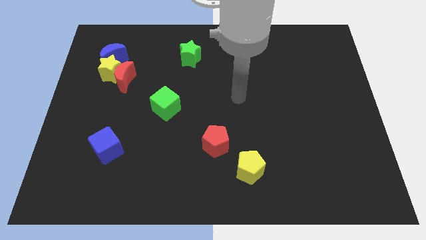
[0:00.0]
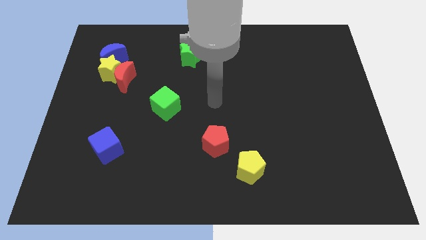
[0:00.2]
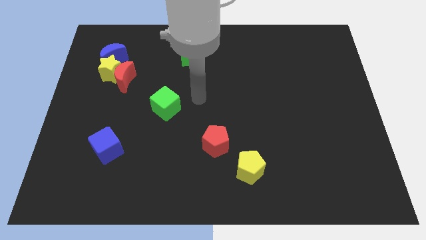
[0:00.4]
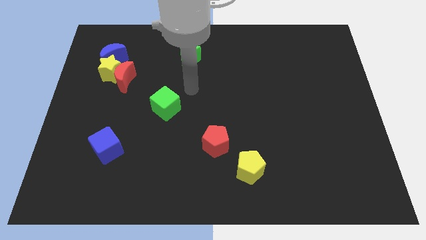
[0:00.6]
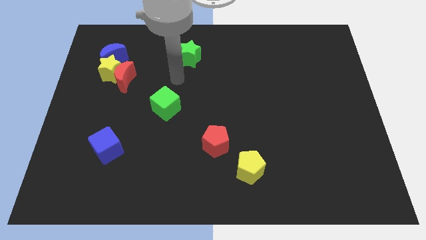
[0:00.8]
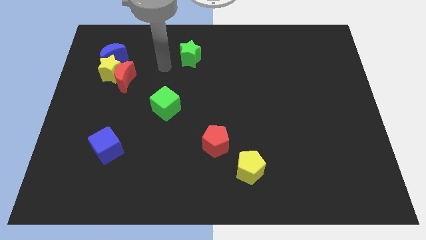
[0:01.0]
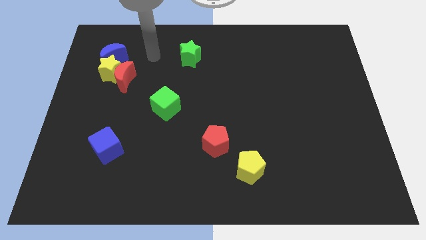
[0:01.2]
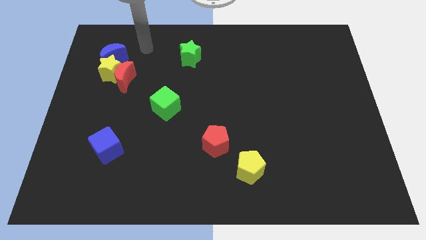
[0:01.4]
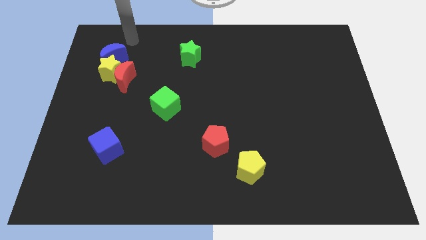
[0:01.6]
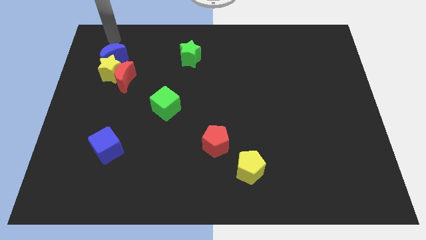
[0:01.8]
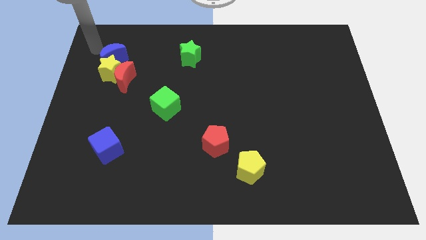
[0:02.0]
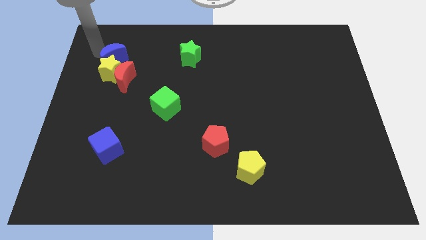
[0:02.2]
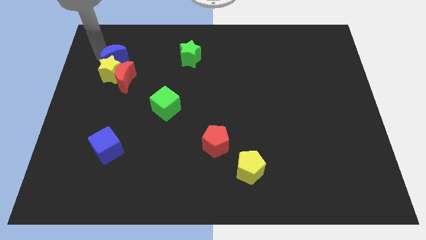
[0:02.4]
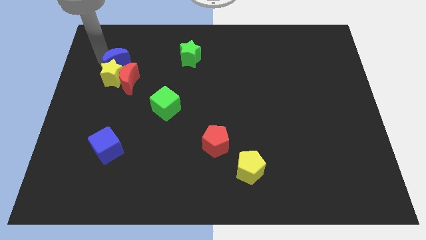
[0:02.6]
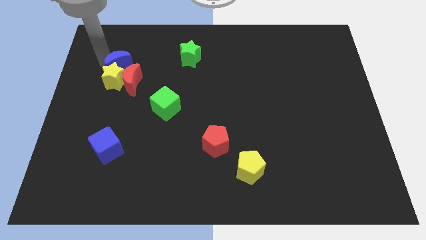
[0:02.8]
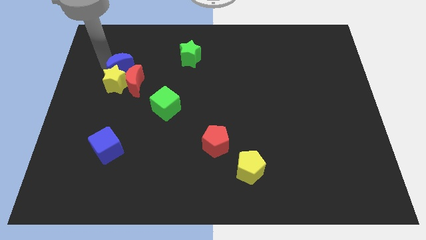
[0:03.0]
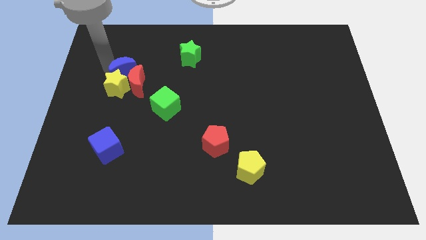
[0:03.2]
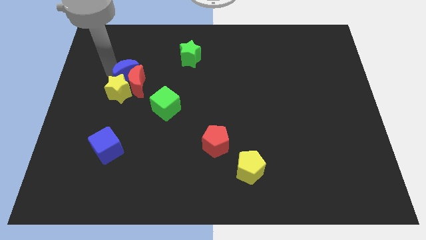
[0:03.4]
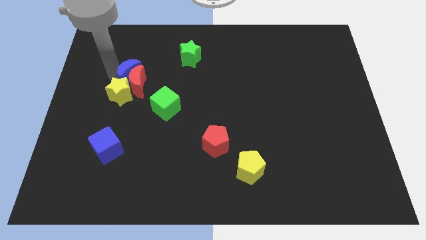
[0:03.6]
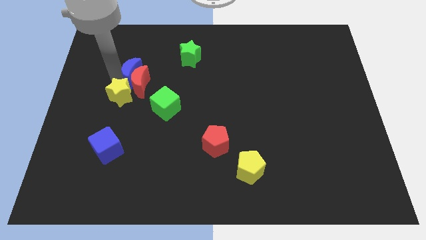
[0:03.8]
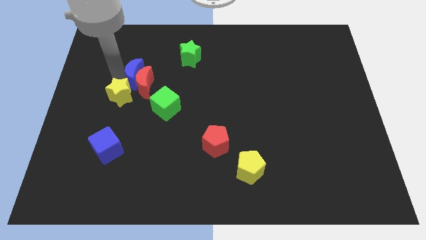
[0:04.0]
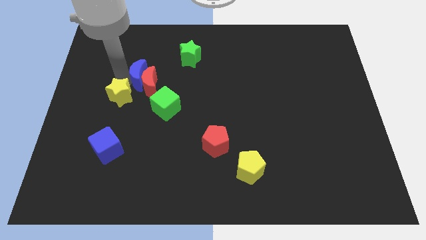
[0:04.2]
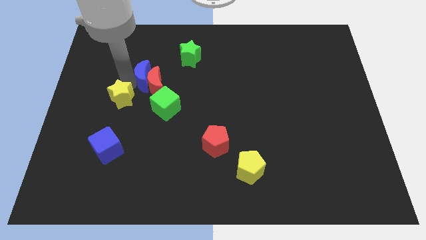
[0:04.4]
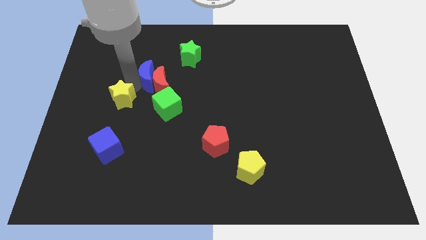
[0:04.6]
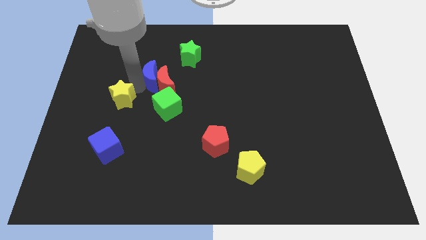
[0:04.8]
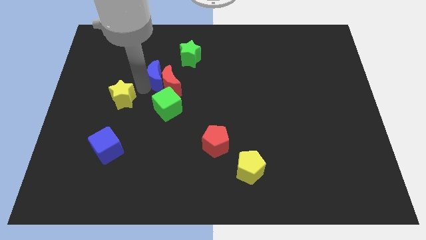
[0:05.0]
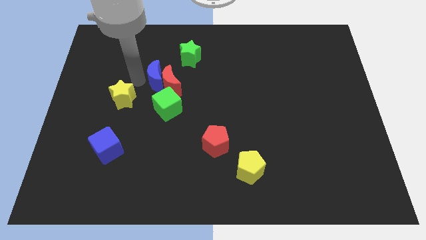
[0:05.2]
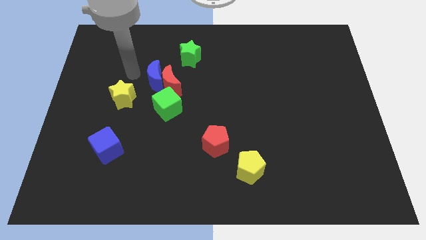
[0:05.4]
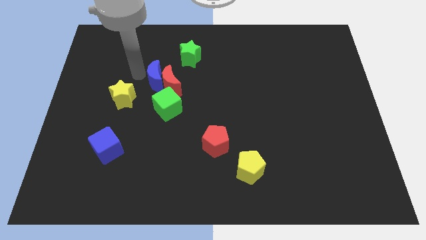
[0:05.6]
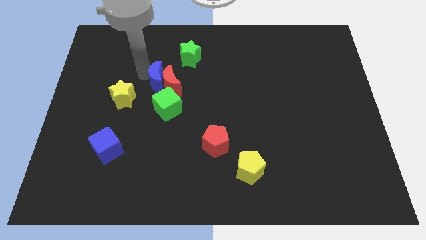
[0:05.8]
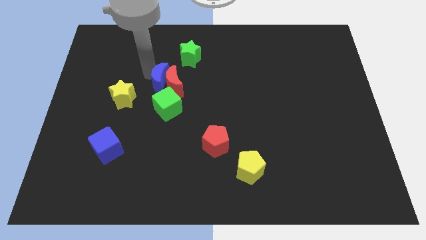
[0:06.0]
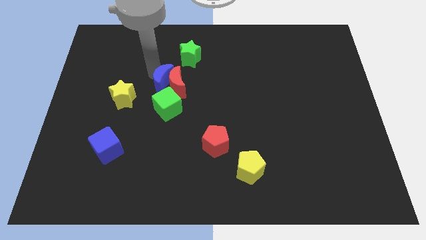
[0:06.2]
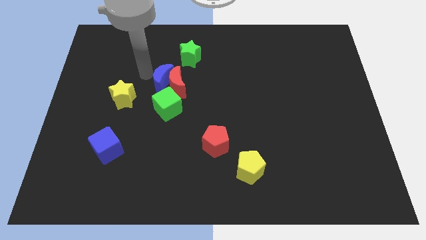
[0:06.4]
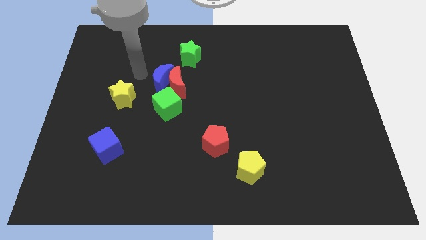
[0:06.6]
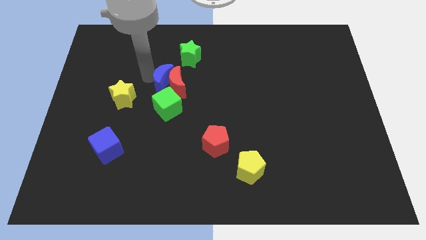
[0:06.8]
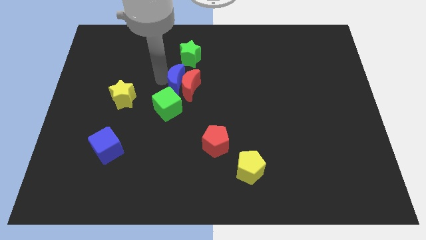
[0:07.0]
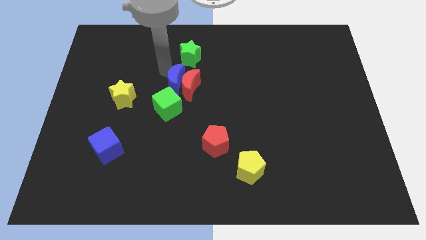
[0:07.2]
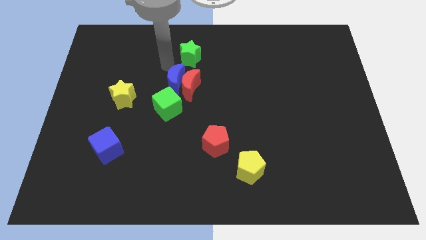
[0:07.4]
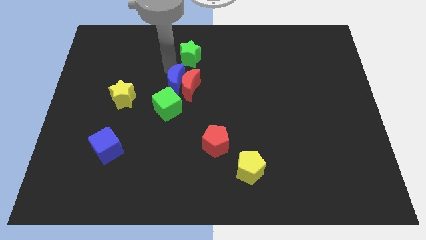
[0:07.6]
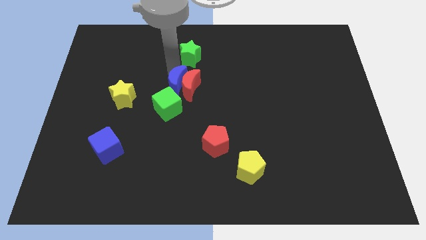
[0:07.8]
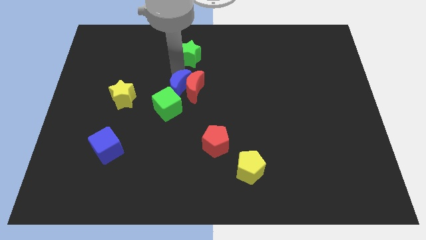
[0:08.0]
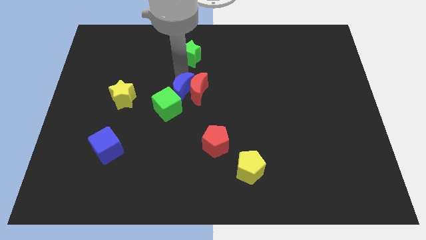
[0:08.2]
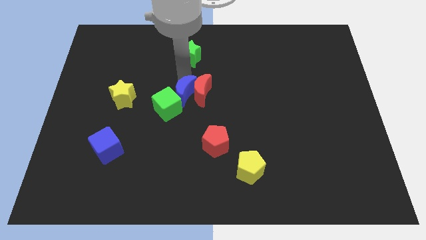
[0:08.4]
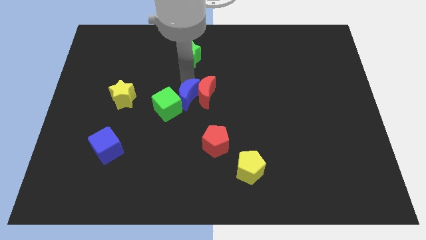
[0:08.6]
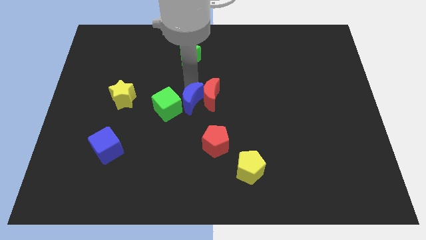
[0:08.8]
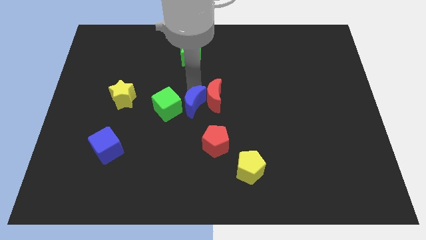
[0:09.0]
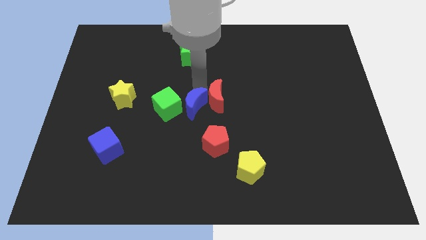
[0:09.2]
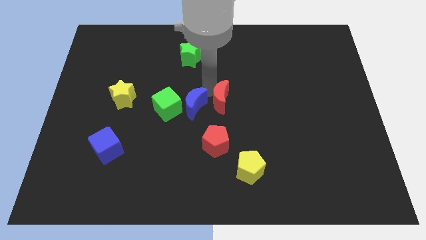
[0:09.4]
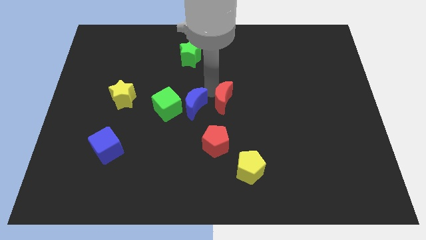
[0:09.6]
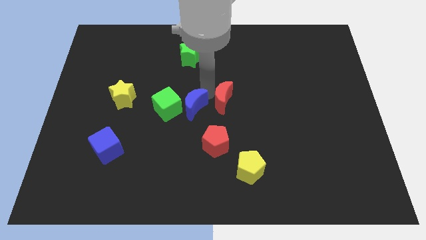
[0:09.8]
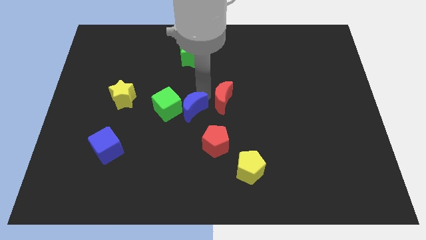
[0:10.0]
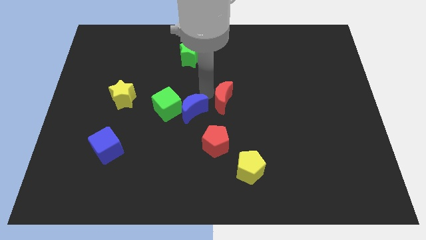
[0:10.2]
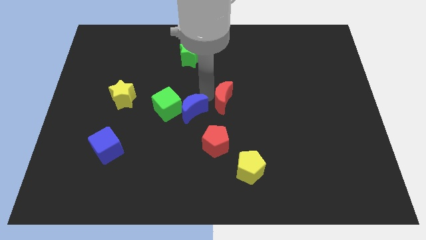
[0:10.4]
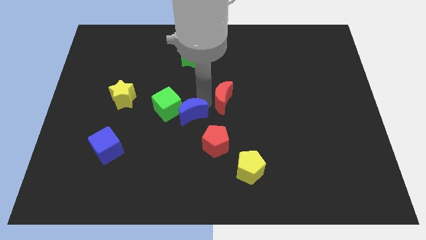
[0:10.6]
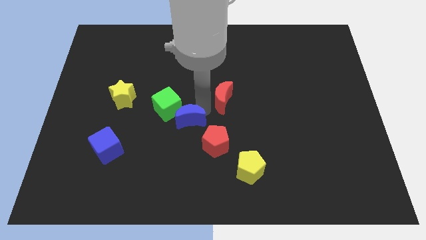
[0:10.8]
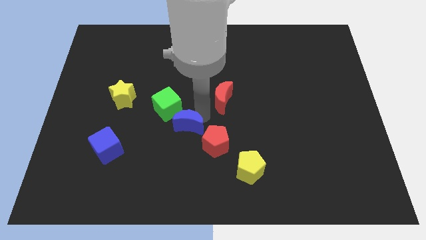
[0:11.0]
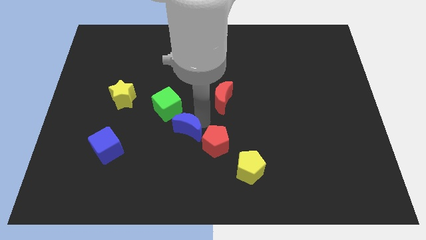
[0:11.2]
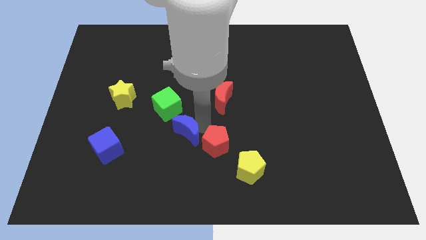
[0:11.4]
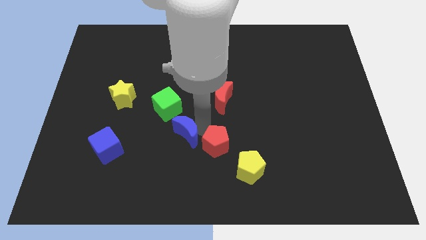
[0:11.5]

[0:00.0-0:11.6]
slide the blue moon below the green cube

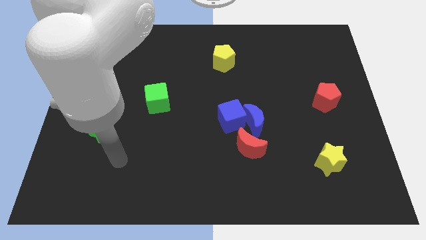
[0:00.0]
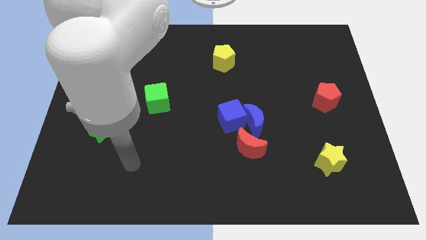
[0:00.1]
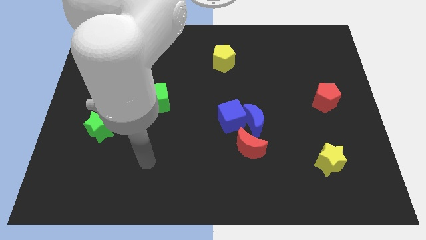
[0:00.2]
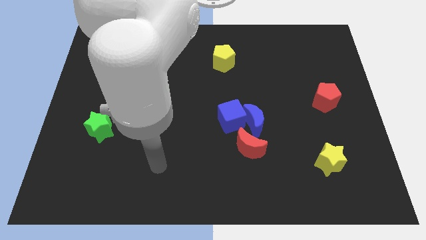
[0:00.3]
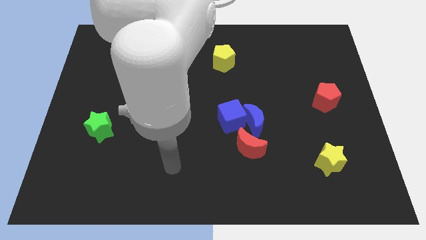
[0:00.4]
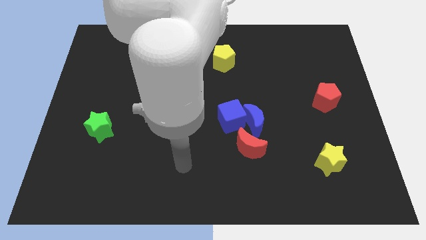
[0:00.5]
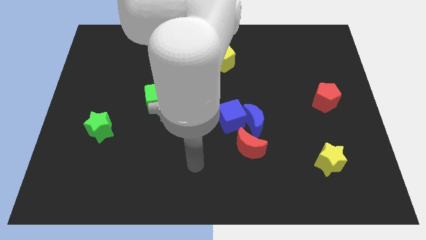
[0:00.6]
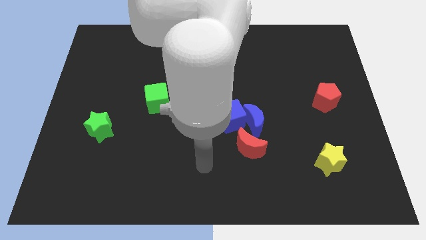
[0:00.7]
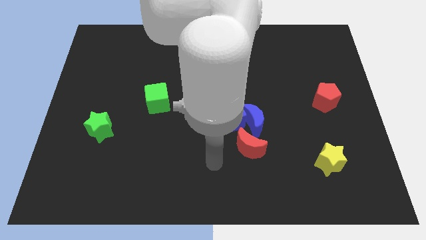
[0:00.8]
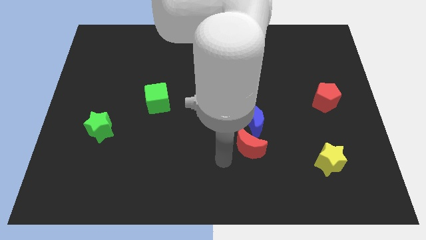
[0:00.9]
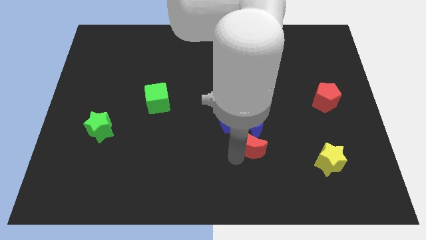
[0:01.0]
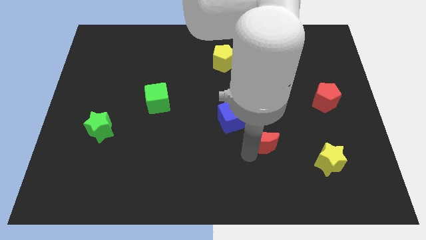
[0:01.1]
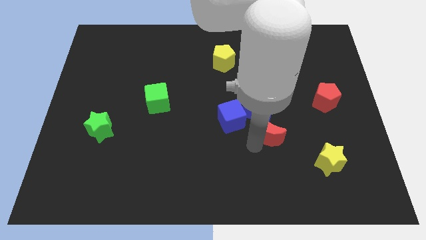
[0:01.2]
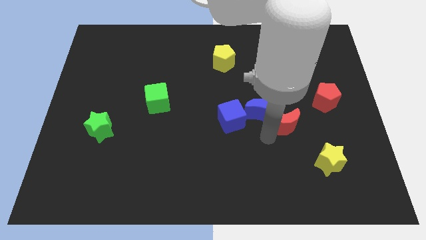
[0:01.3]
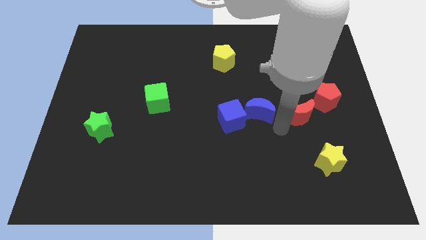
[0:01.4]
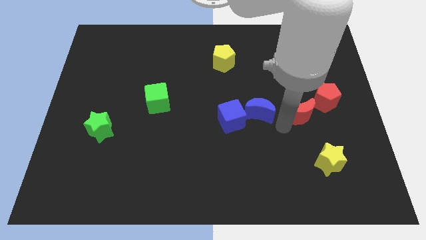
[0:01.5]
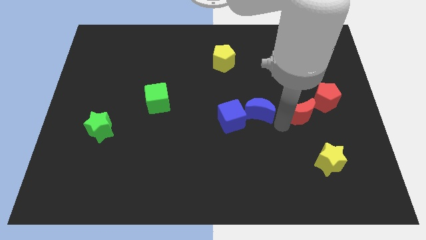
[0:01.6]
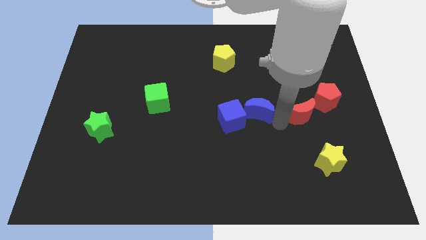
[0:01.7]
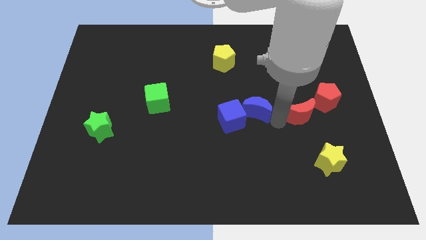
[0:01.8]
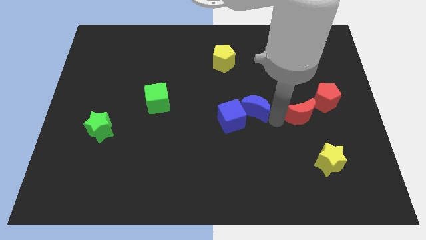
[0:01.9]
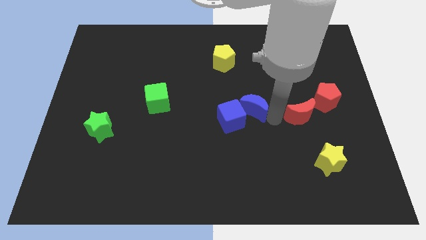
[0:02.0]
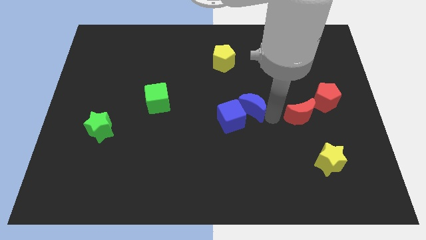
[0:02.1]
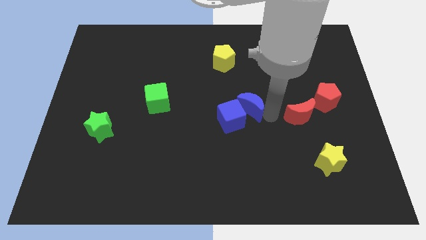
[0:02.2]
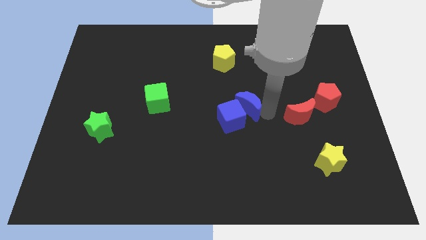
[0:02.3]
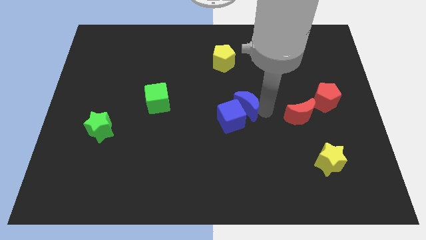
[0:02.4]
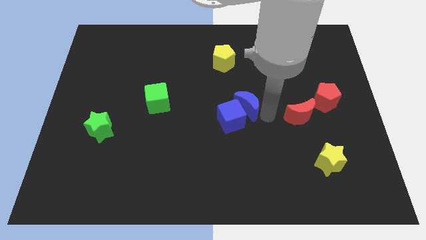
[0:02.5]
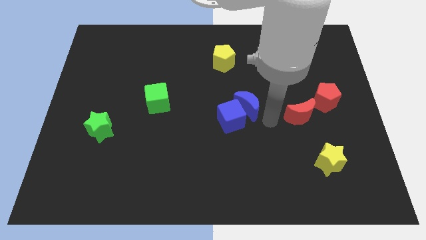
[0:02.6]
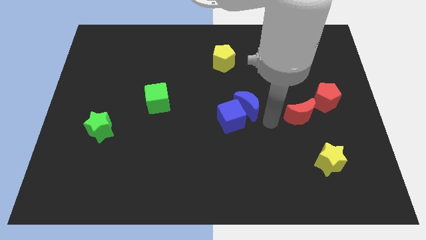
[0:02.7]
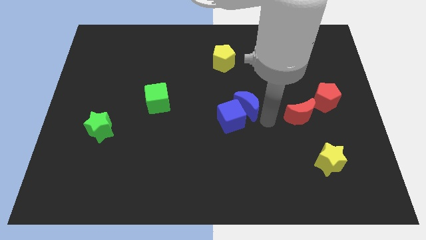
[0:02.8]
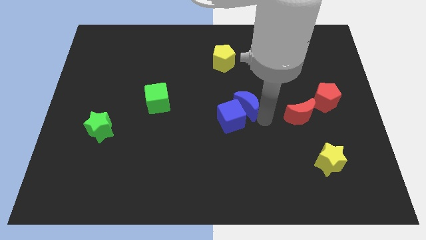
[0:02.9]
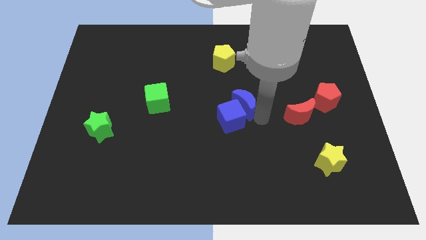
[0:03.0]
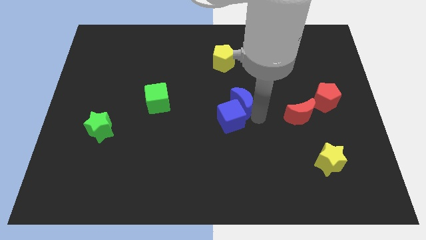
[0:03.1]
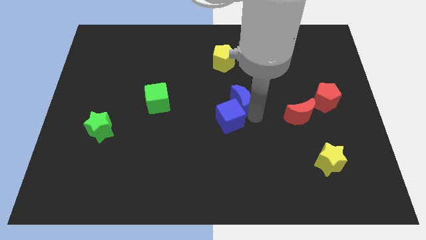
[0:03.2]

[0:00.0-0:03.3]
move the blue moon to the bottom side of the yellow pentagon
